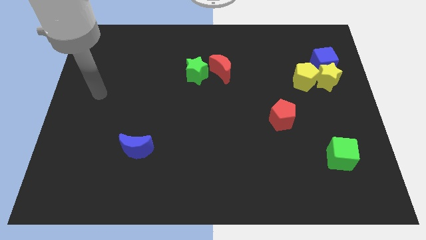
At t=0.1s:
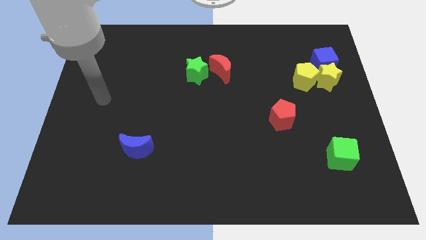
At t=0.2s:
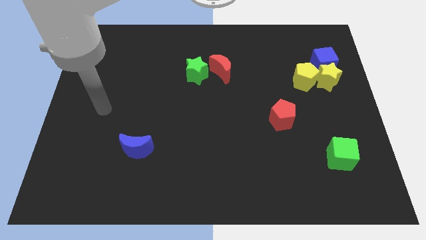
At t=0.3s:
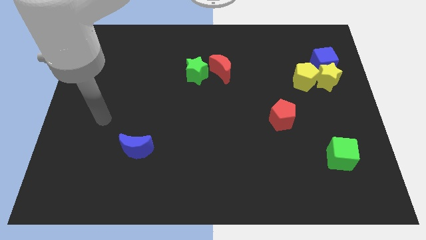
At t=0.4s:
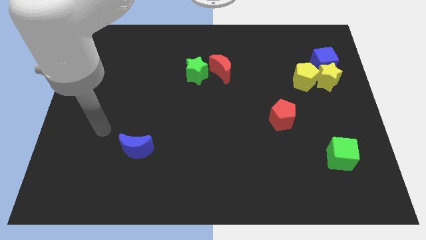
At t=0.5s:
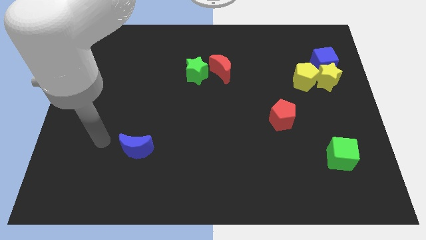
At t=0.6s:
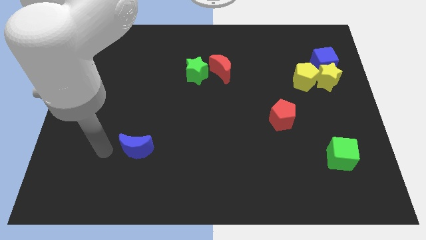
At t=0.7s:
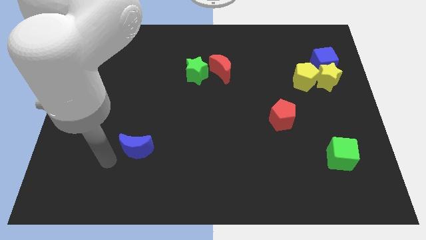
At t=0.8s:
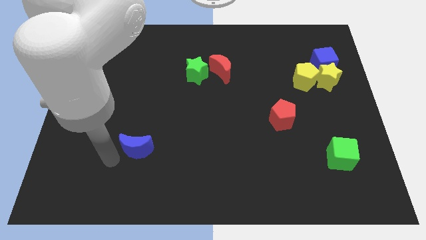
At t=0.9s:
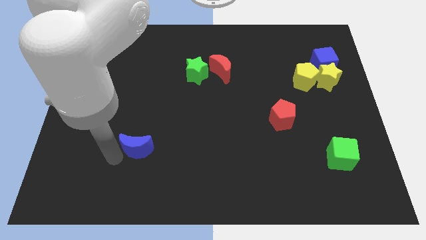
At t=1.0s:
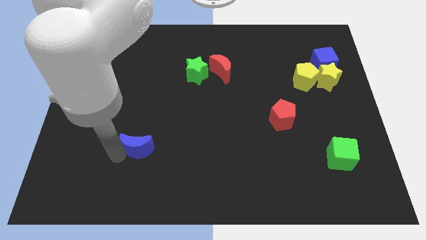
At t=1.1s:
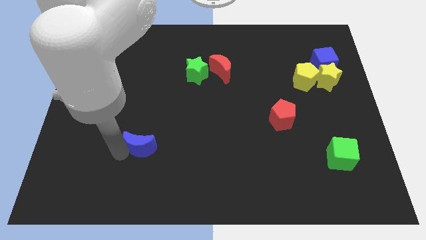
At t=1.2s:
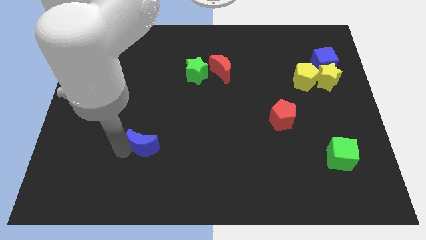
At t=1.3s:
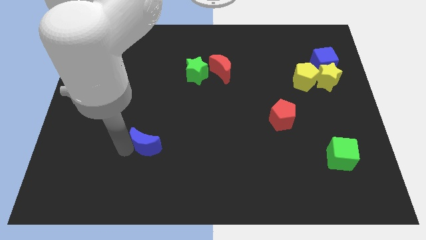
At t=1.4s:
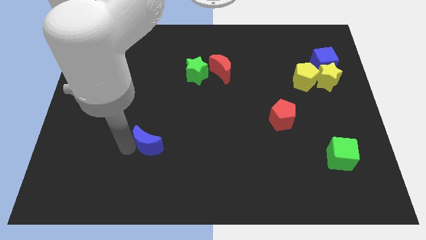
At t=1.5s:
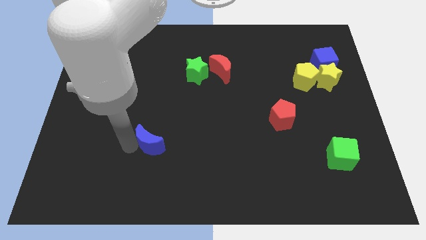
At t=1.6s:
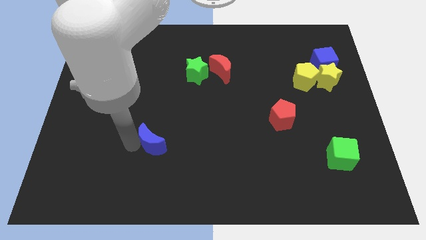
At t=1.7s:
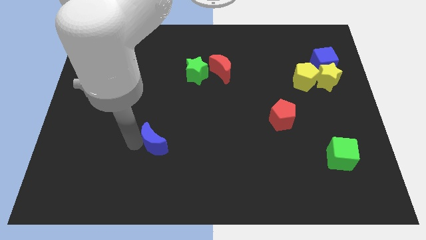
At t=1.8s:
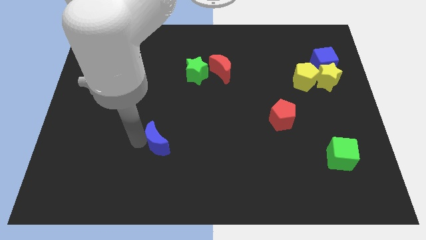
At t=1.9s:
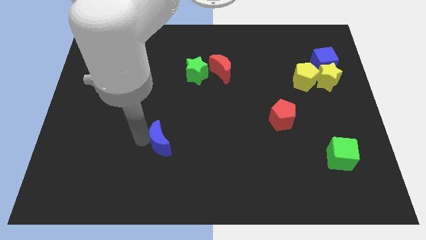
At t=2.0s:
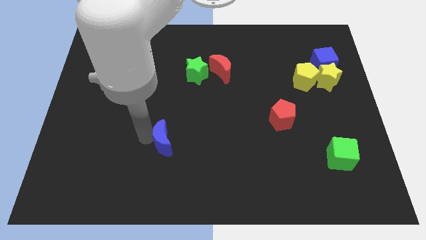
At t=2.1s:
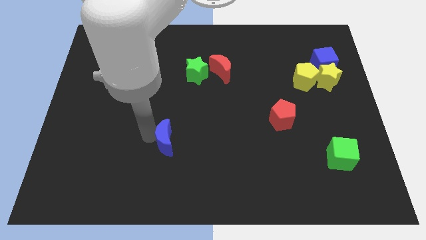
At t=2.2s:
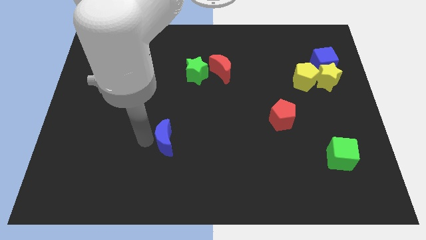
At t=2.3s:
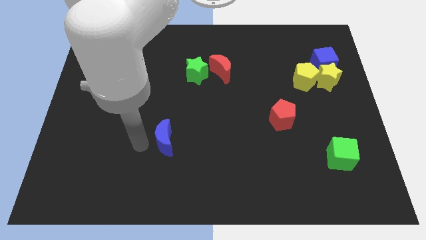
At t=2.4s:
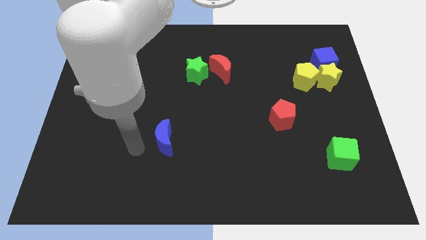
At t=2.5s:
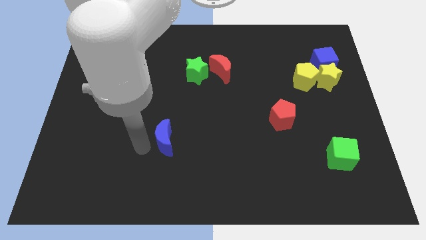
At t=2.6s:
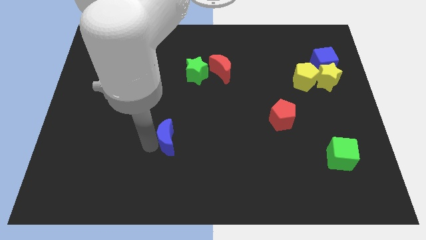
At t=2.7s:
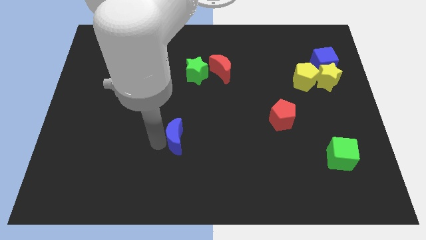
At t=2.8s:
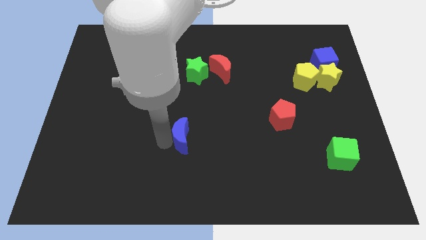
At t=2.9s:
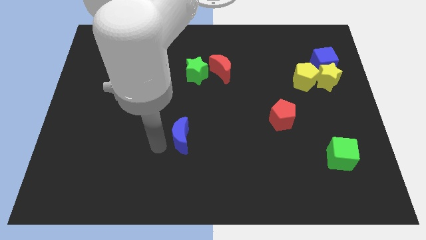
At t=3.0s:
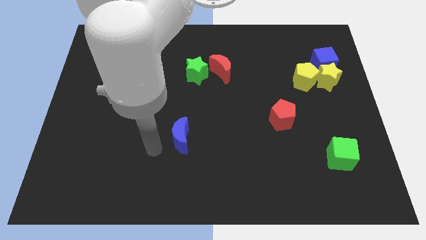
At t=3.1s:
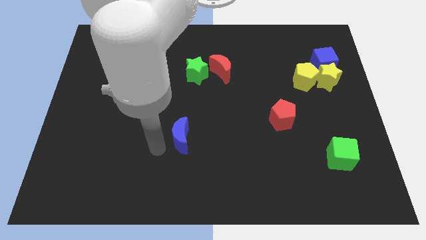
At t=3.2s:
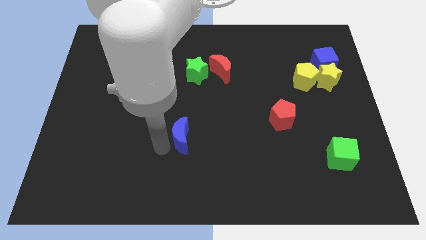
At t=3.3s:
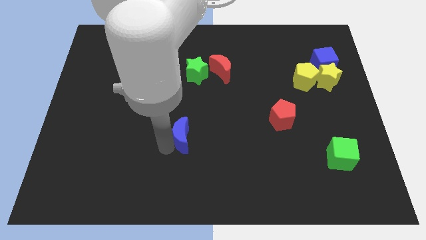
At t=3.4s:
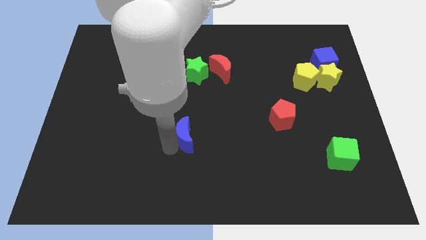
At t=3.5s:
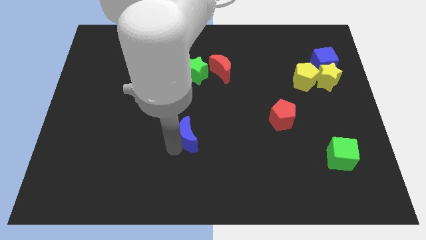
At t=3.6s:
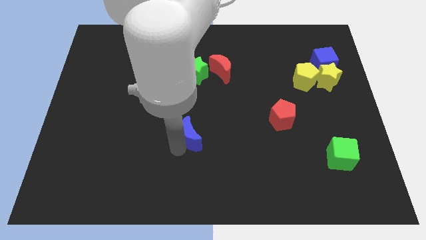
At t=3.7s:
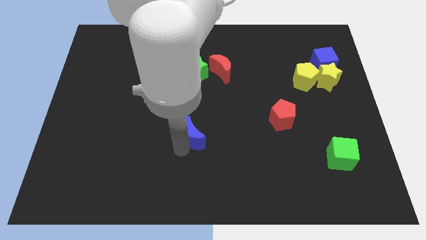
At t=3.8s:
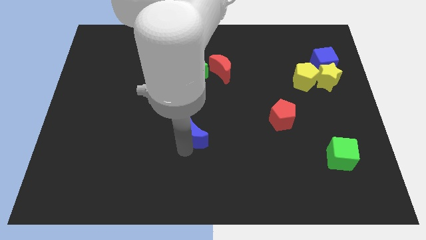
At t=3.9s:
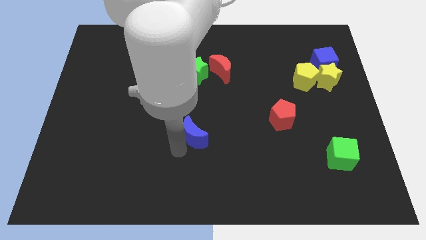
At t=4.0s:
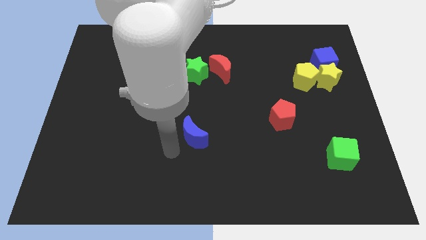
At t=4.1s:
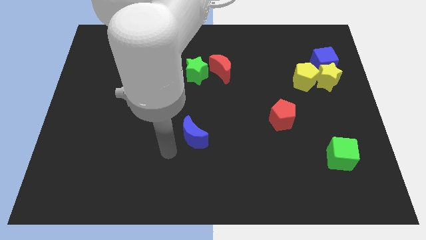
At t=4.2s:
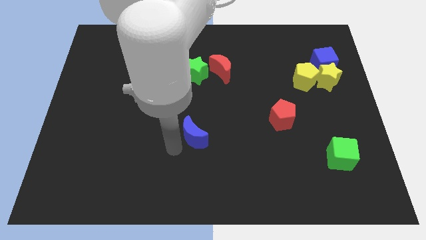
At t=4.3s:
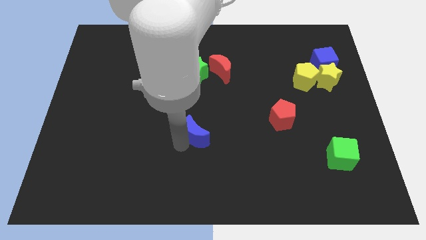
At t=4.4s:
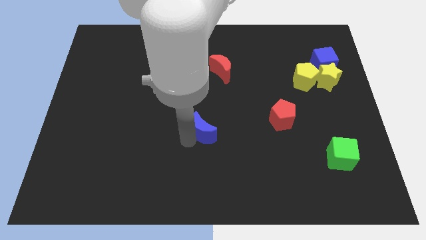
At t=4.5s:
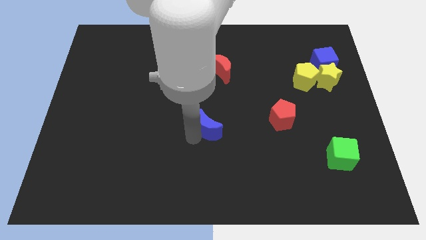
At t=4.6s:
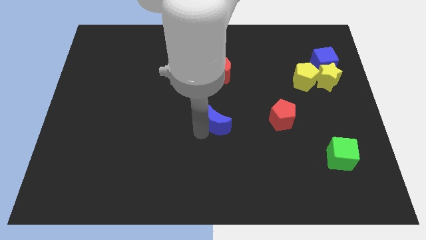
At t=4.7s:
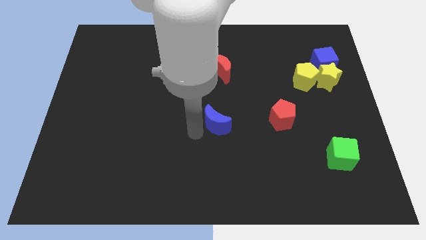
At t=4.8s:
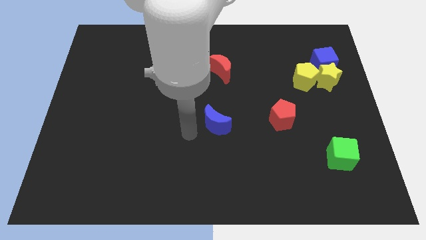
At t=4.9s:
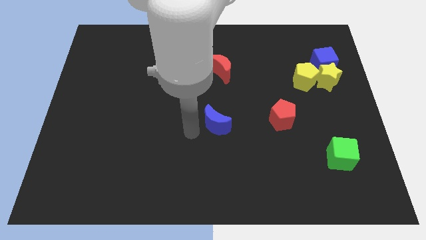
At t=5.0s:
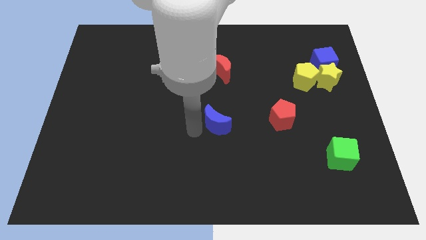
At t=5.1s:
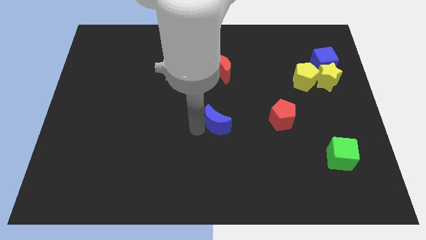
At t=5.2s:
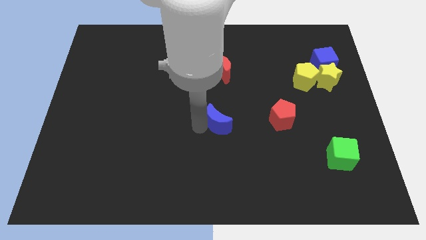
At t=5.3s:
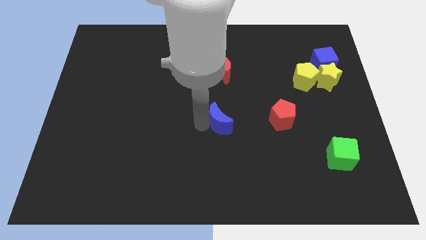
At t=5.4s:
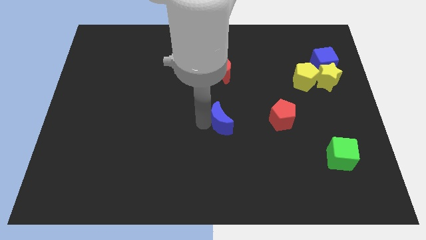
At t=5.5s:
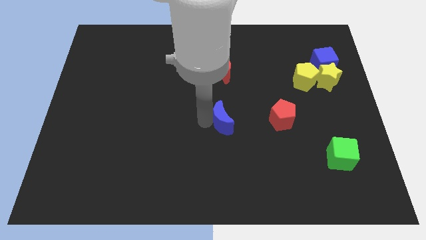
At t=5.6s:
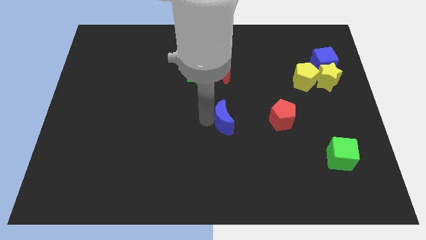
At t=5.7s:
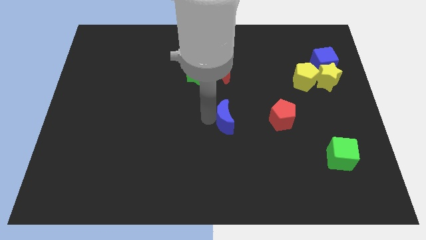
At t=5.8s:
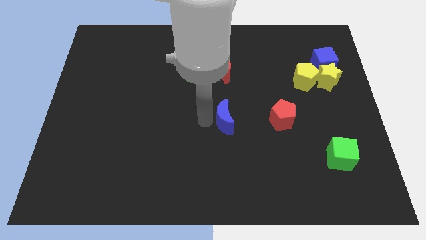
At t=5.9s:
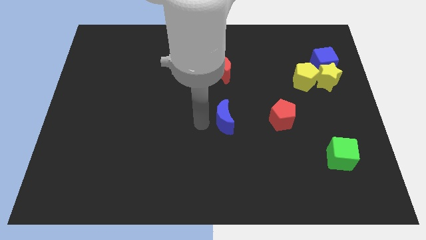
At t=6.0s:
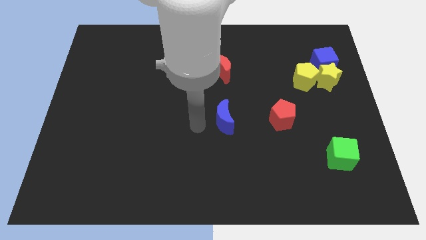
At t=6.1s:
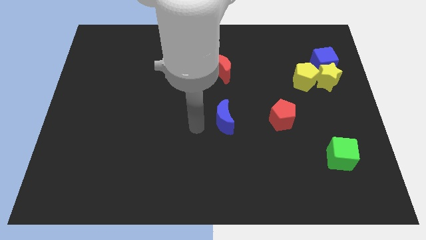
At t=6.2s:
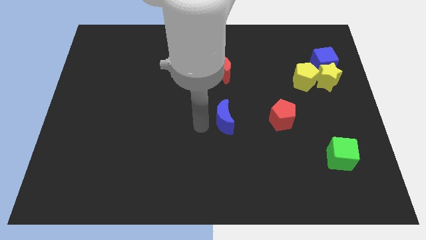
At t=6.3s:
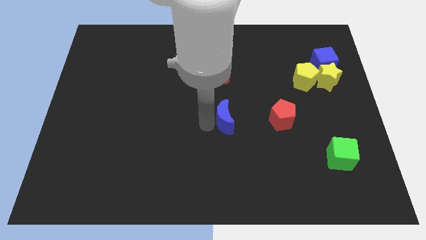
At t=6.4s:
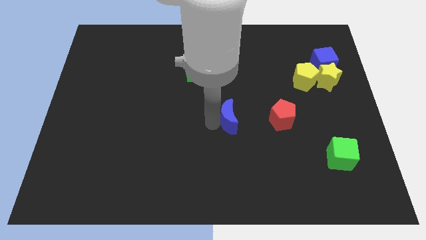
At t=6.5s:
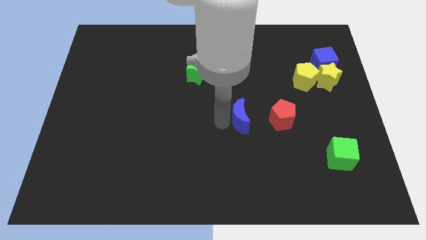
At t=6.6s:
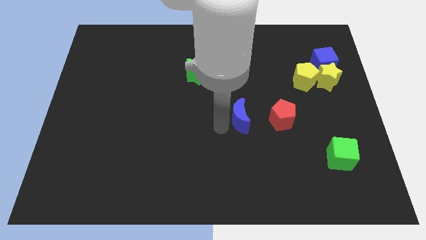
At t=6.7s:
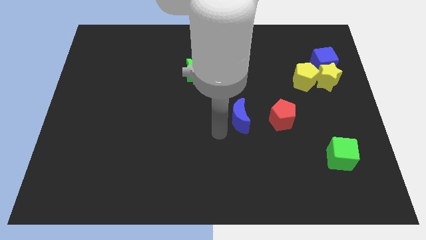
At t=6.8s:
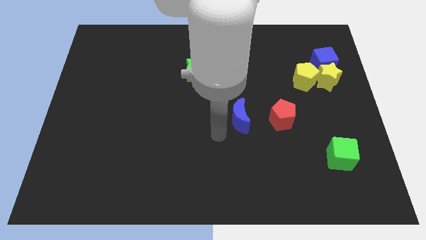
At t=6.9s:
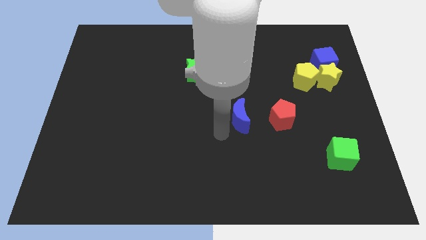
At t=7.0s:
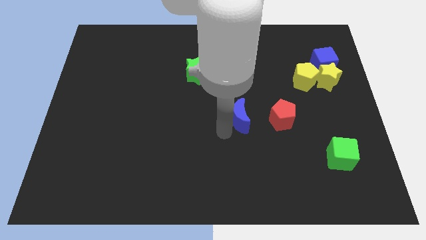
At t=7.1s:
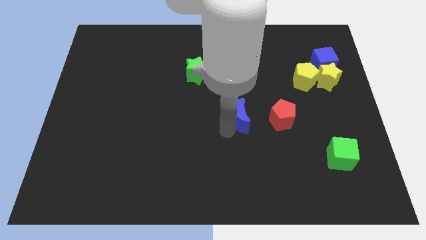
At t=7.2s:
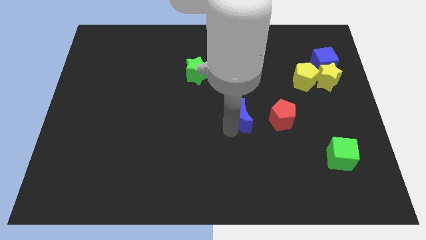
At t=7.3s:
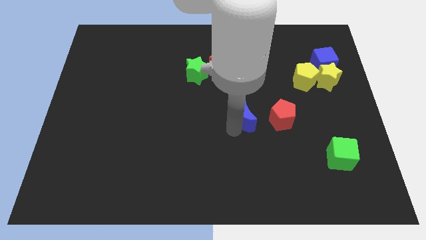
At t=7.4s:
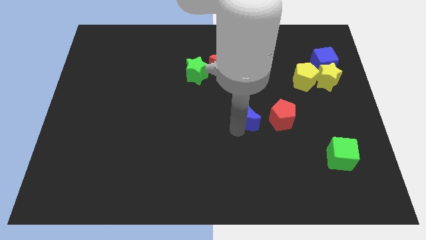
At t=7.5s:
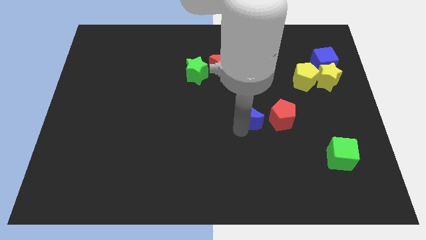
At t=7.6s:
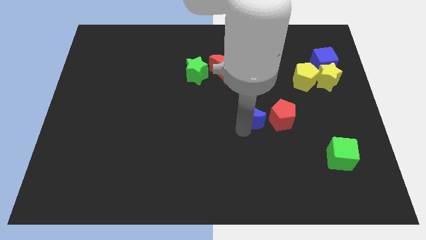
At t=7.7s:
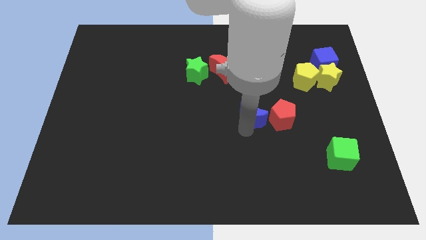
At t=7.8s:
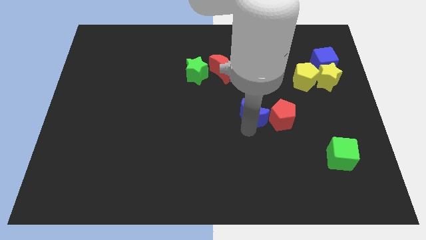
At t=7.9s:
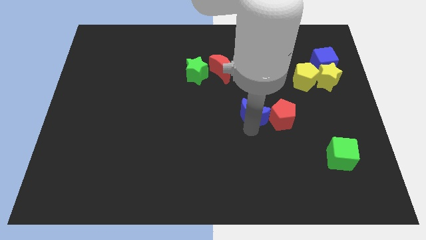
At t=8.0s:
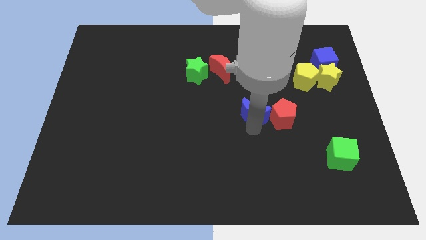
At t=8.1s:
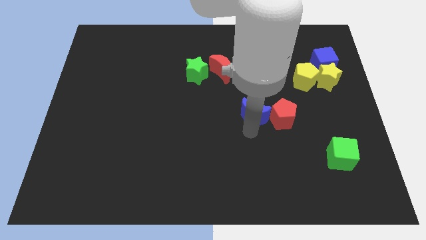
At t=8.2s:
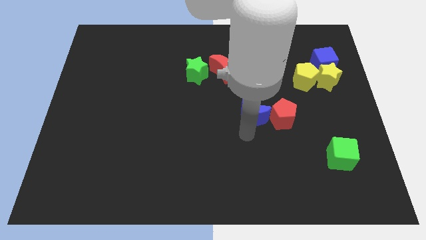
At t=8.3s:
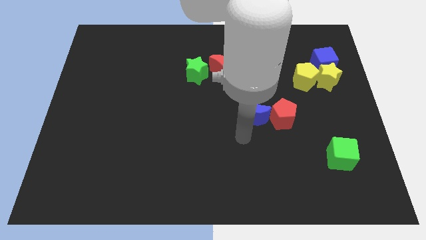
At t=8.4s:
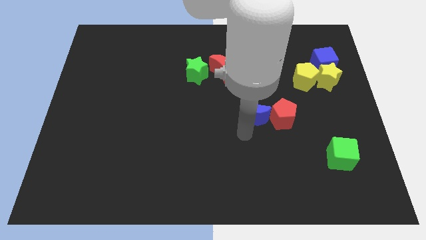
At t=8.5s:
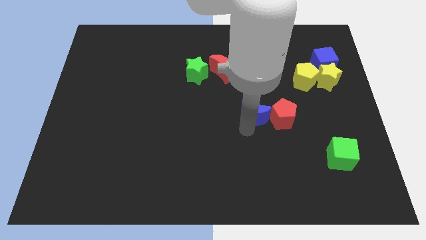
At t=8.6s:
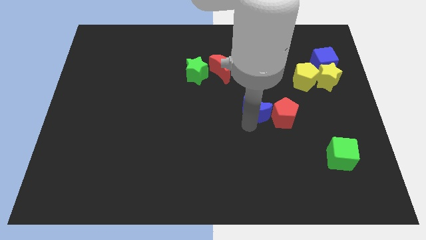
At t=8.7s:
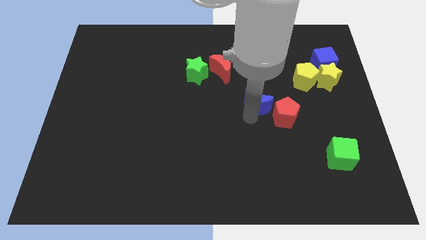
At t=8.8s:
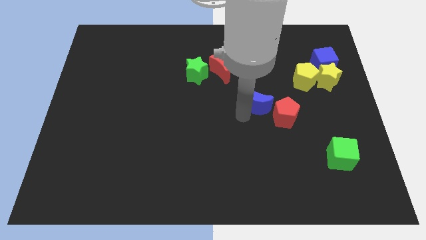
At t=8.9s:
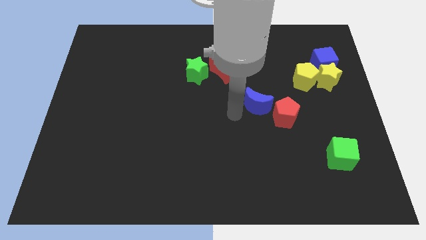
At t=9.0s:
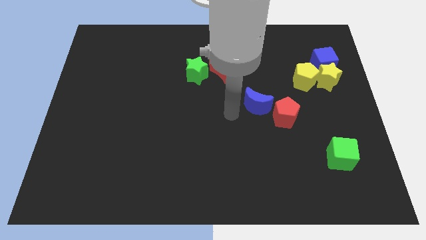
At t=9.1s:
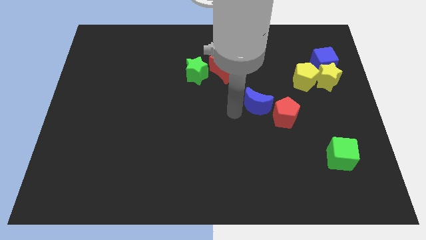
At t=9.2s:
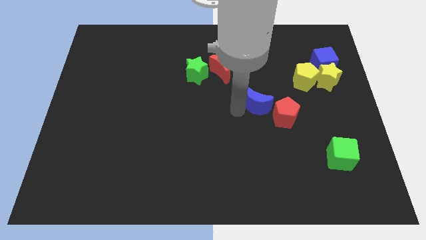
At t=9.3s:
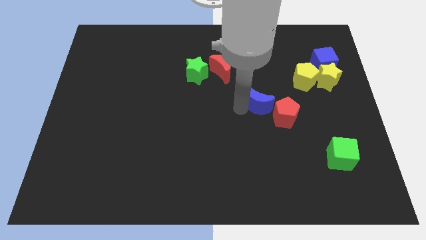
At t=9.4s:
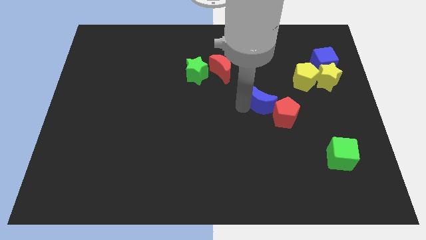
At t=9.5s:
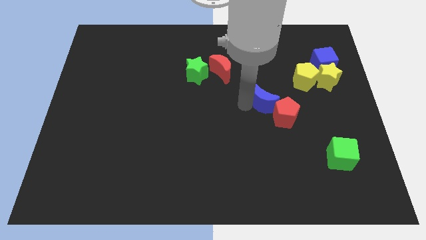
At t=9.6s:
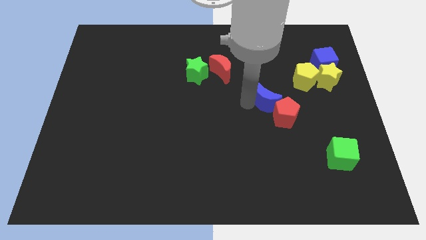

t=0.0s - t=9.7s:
push the blue moon diagonally down and to the left of the yellow pentagon
